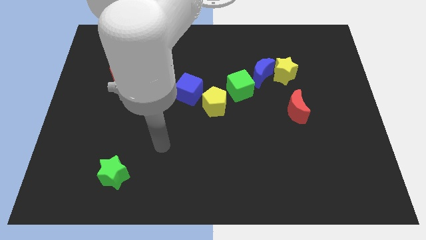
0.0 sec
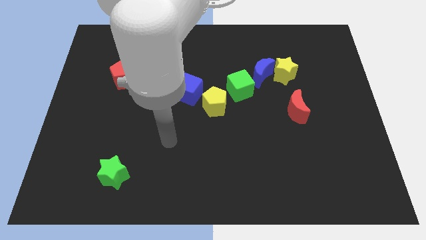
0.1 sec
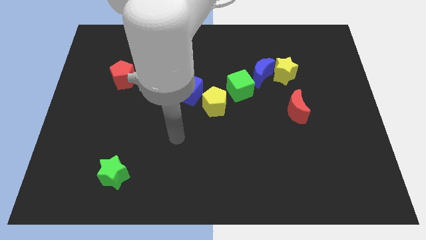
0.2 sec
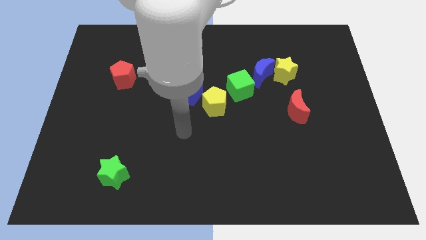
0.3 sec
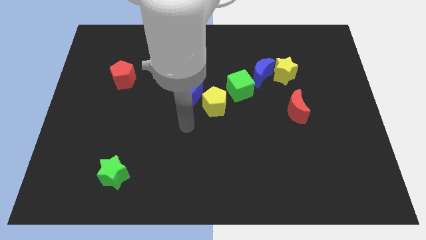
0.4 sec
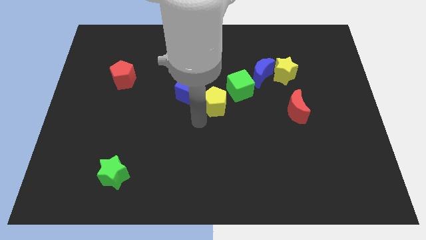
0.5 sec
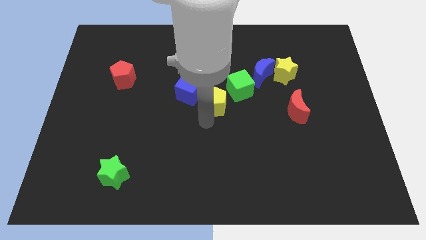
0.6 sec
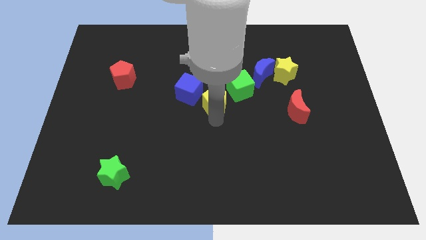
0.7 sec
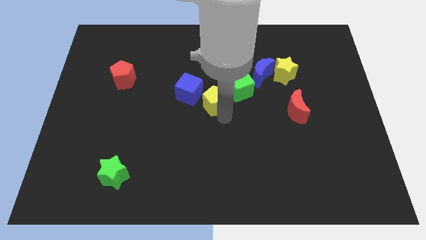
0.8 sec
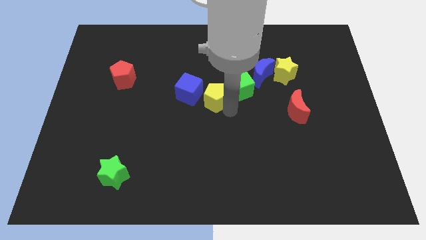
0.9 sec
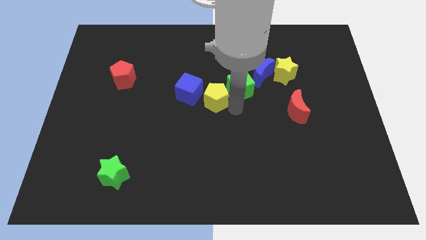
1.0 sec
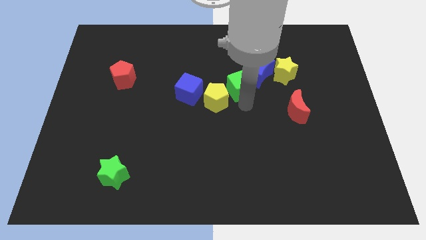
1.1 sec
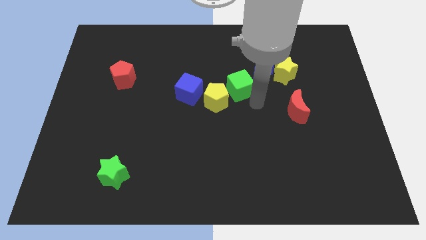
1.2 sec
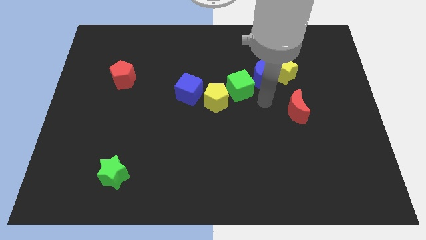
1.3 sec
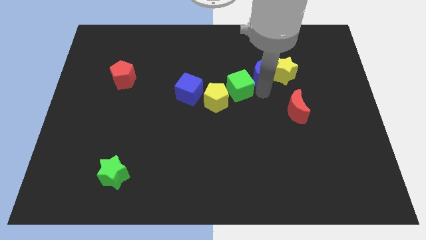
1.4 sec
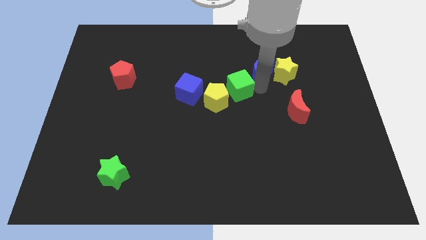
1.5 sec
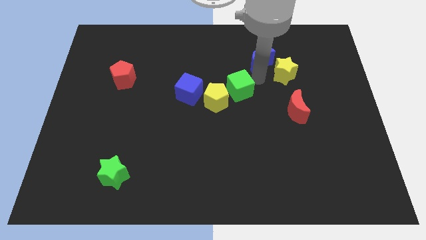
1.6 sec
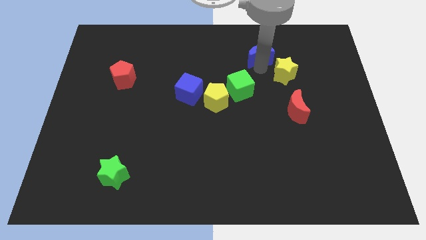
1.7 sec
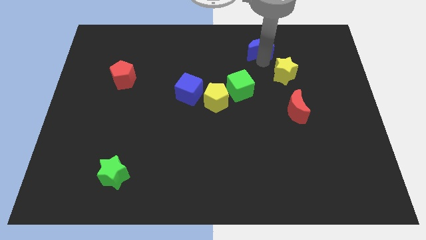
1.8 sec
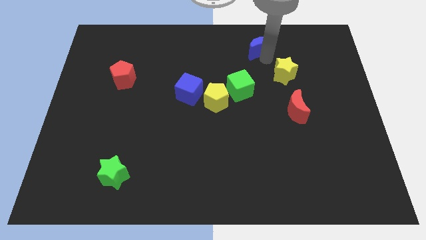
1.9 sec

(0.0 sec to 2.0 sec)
move the yellow star away from the blue moon

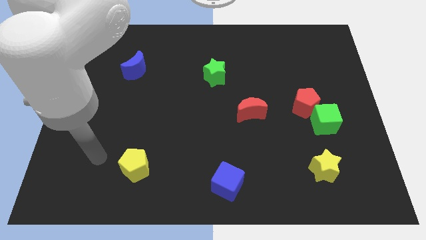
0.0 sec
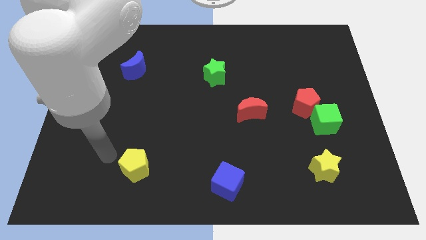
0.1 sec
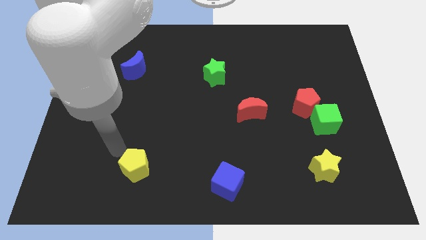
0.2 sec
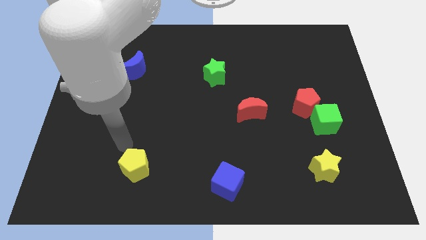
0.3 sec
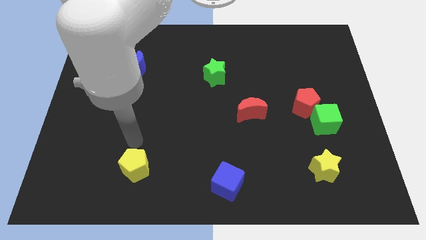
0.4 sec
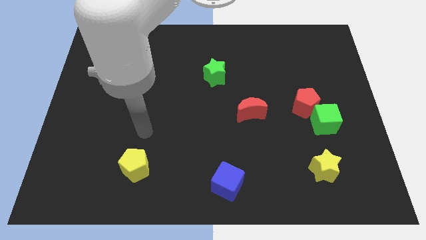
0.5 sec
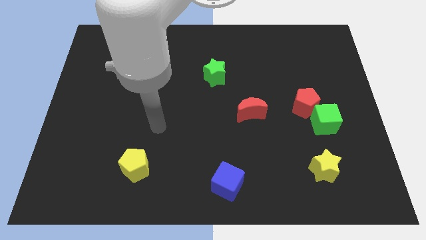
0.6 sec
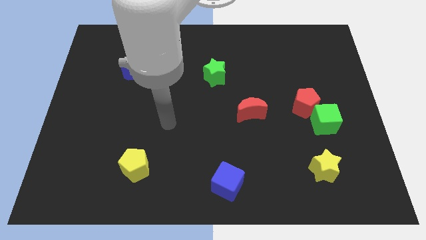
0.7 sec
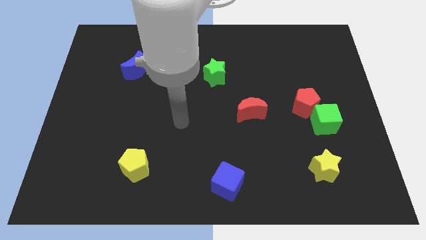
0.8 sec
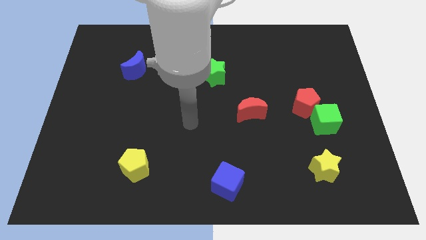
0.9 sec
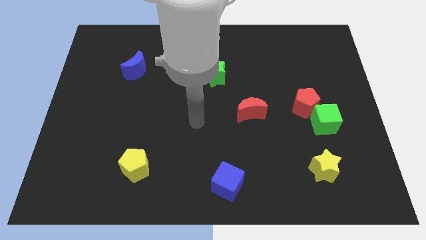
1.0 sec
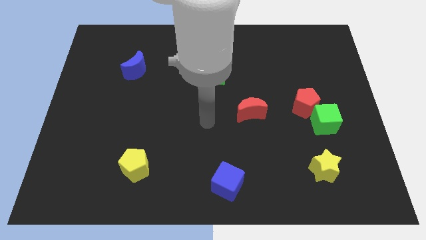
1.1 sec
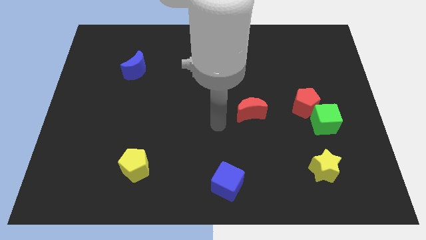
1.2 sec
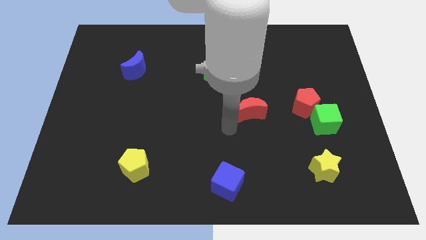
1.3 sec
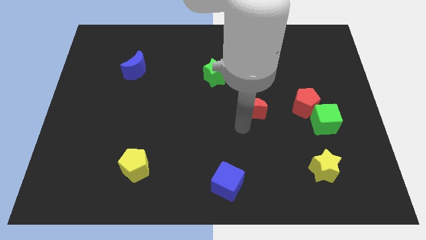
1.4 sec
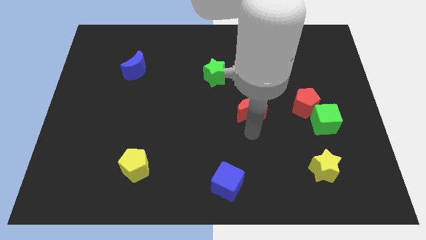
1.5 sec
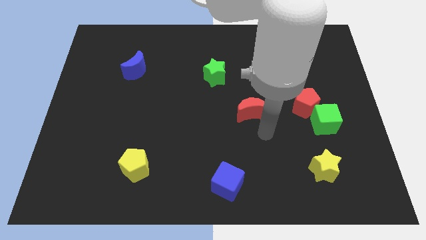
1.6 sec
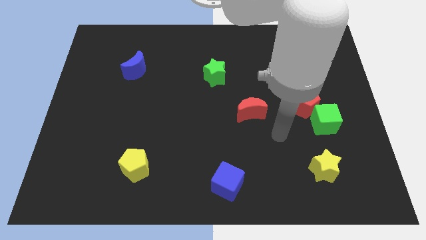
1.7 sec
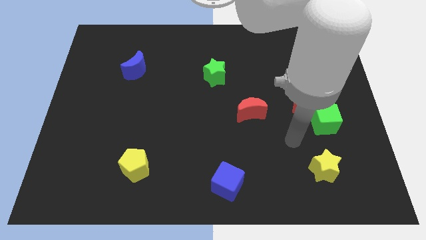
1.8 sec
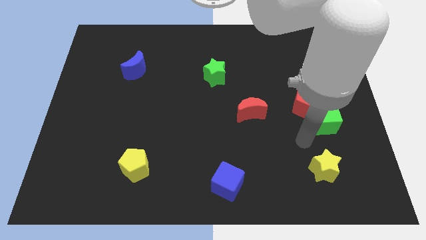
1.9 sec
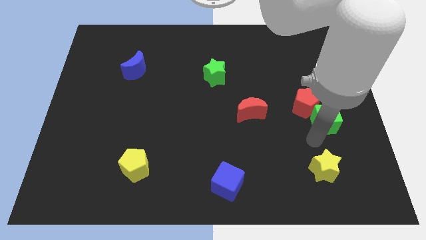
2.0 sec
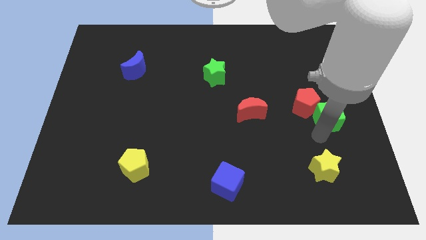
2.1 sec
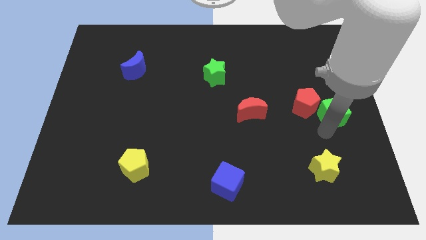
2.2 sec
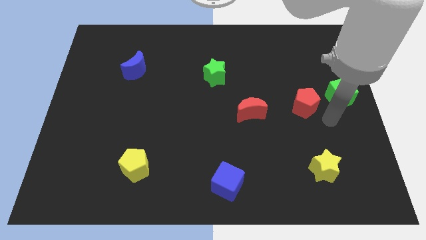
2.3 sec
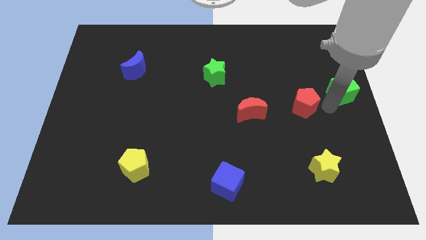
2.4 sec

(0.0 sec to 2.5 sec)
pull the red pentagon apart from the green cube

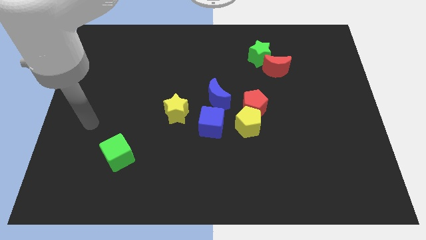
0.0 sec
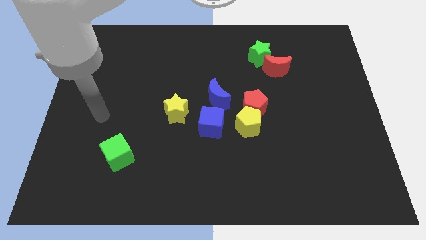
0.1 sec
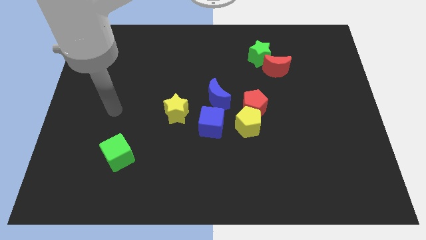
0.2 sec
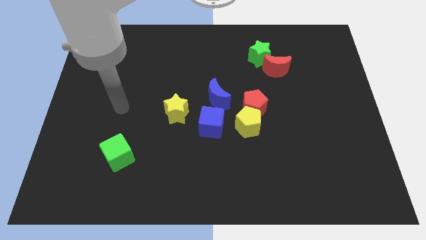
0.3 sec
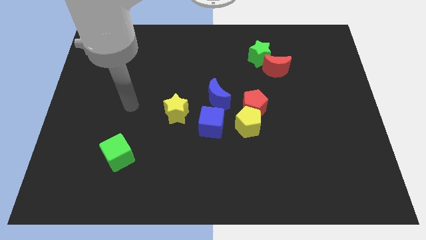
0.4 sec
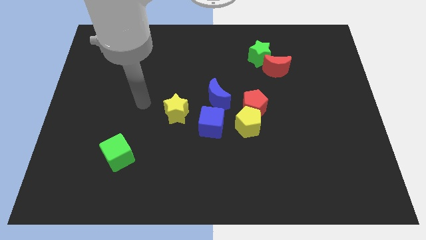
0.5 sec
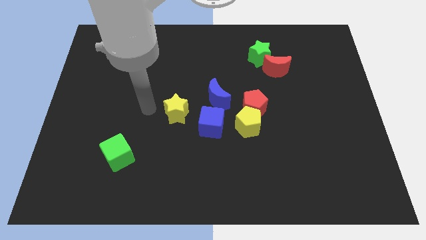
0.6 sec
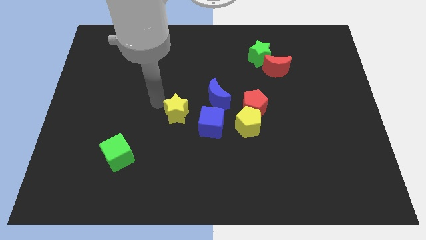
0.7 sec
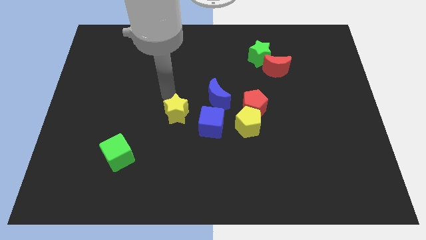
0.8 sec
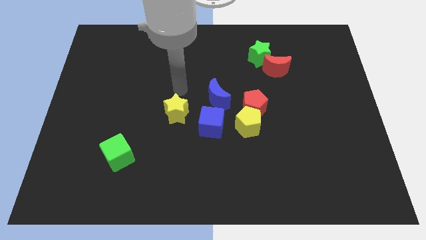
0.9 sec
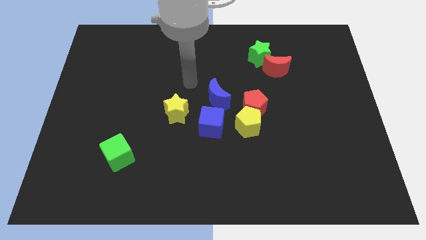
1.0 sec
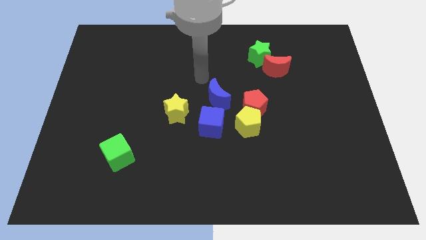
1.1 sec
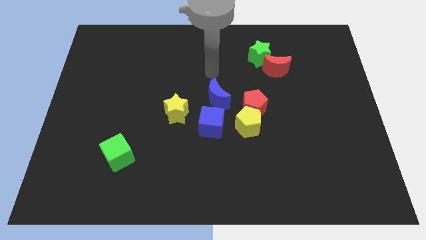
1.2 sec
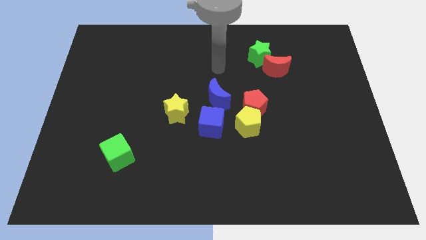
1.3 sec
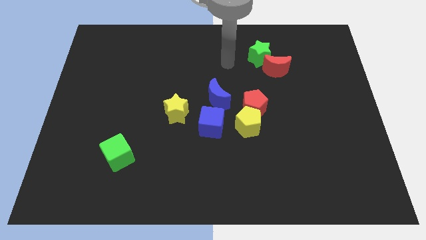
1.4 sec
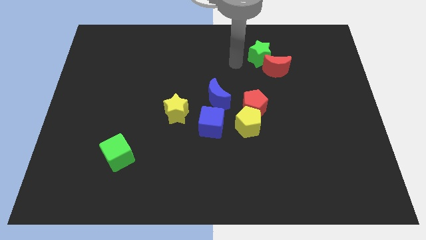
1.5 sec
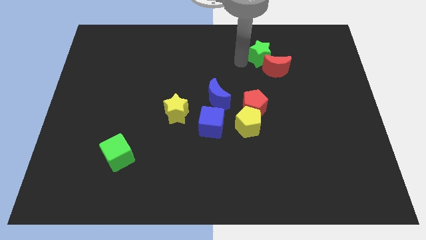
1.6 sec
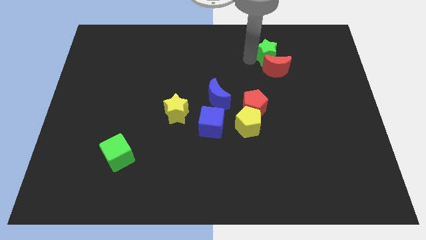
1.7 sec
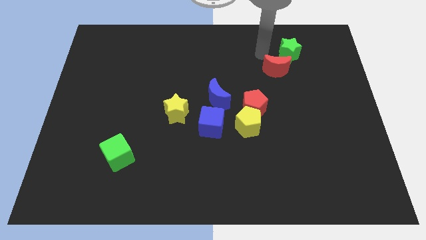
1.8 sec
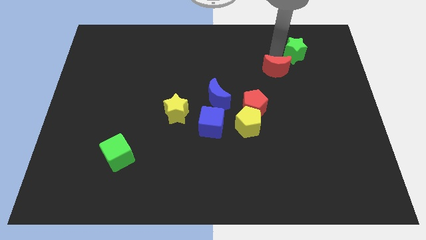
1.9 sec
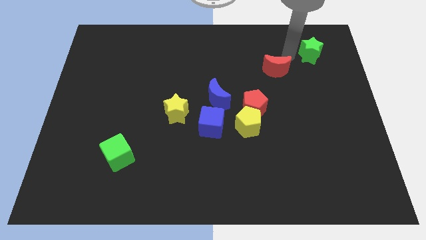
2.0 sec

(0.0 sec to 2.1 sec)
pull the red moon apart from the green star

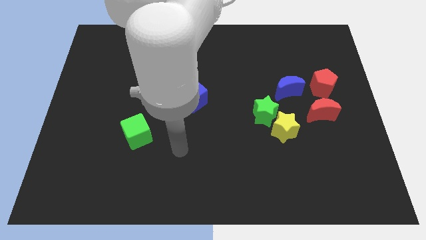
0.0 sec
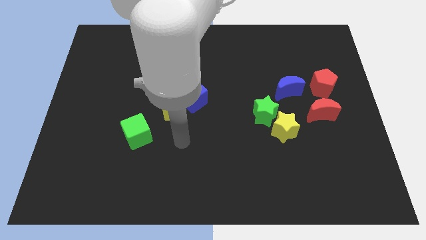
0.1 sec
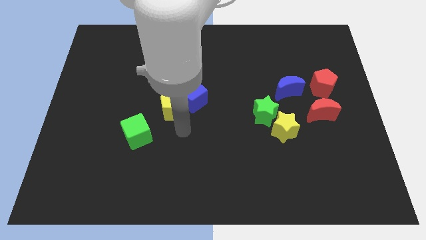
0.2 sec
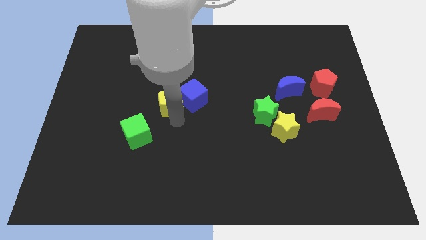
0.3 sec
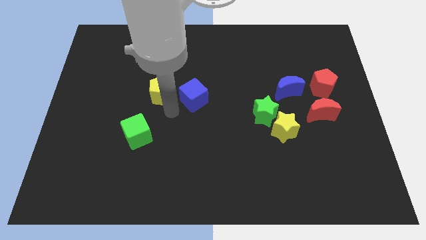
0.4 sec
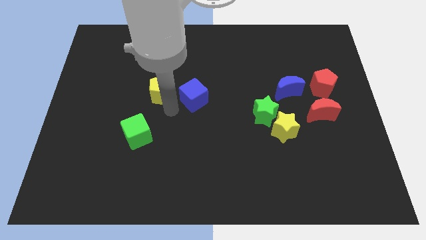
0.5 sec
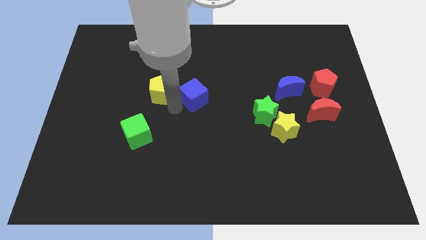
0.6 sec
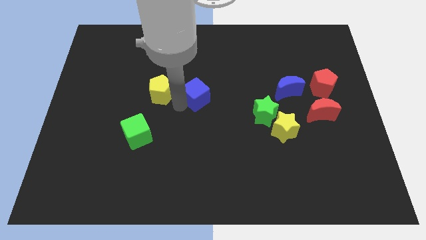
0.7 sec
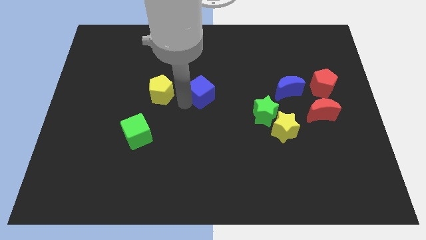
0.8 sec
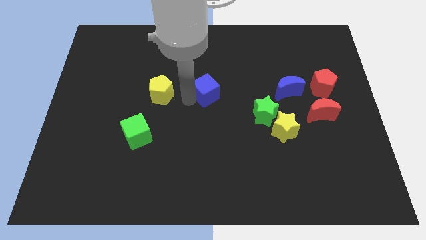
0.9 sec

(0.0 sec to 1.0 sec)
pull the blue cube apart from the yellow pentagon

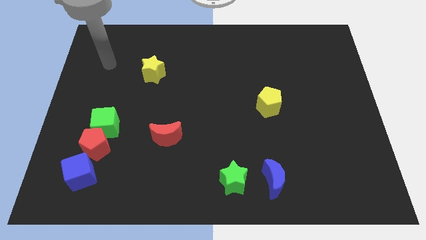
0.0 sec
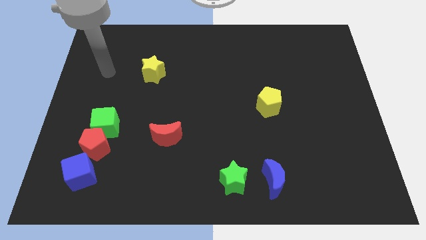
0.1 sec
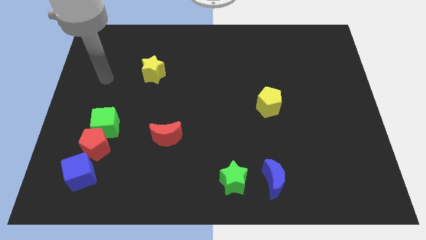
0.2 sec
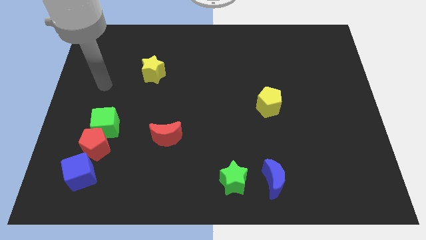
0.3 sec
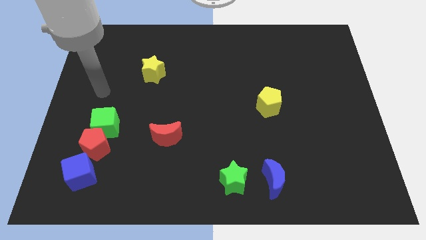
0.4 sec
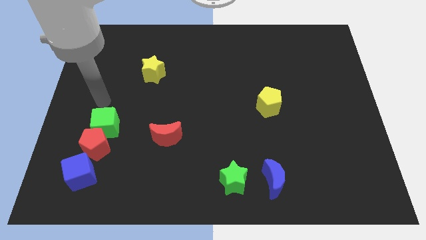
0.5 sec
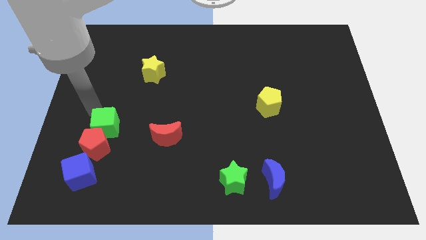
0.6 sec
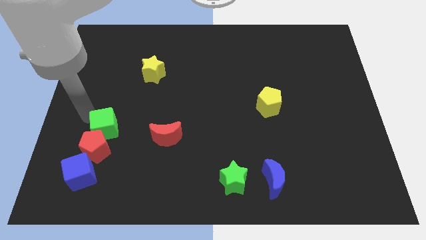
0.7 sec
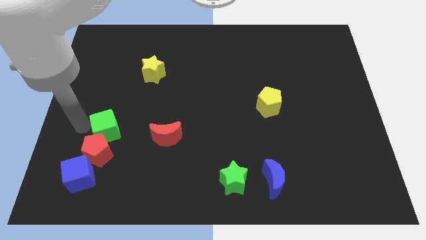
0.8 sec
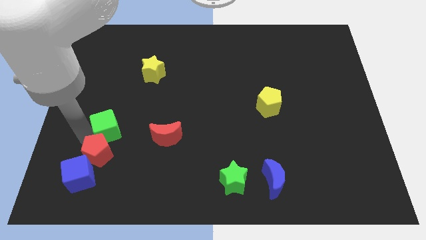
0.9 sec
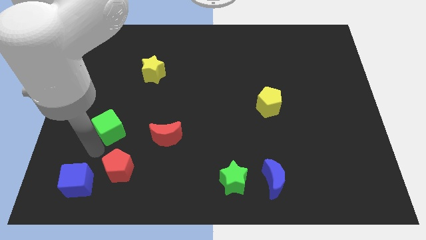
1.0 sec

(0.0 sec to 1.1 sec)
move the green cube away from the red pentagon

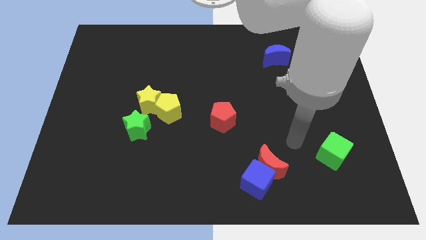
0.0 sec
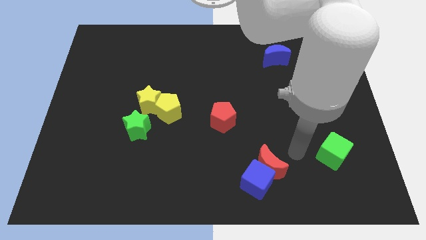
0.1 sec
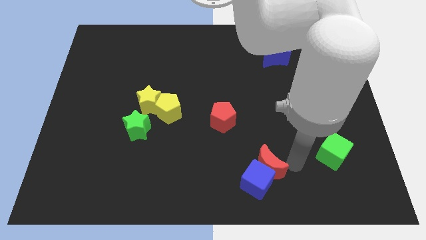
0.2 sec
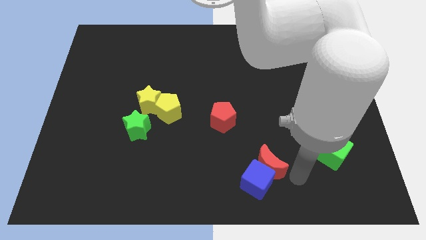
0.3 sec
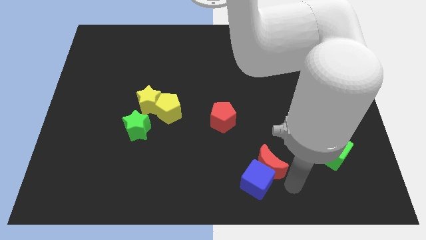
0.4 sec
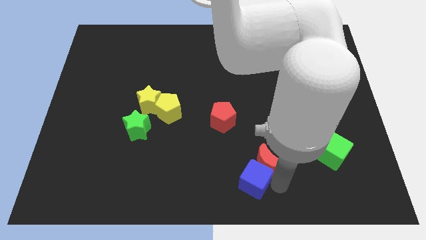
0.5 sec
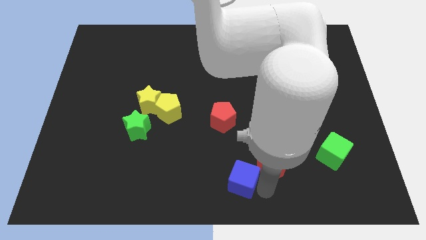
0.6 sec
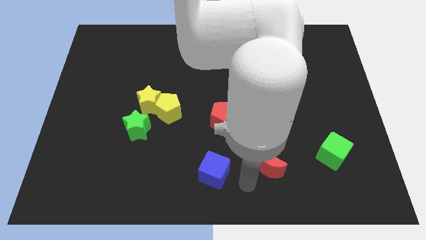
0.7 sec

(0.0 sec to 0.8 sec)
separate the red moon from the blue cube
